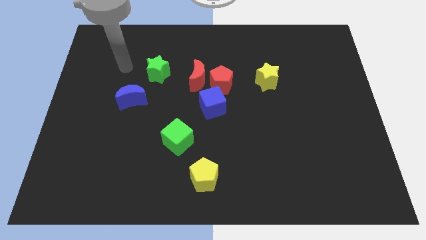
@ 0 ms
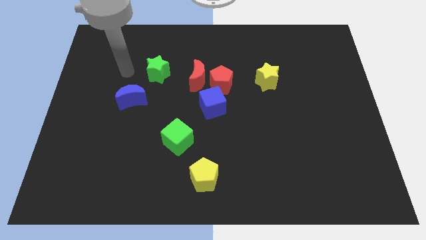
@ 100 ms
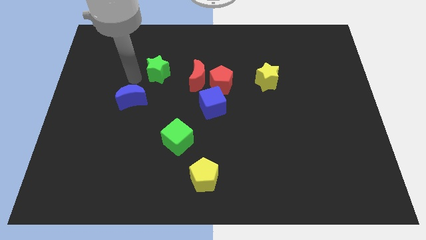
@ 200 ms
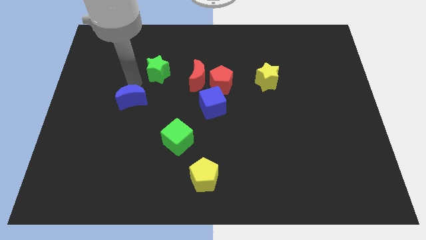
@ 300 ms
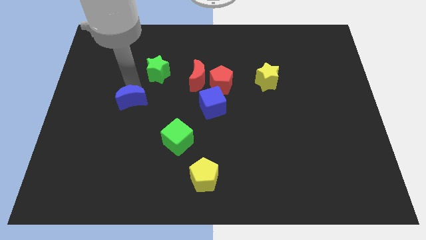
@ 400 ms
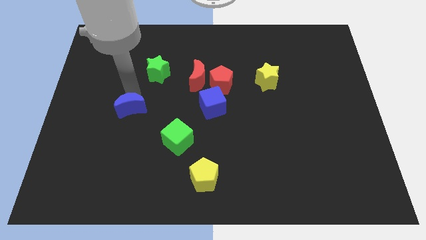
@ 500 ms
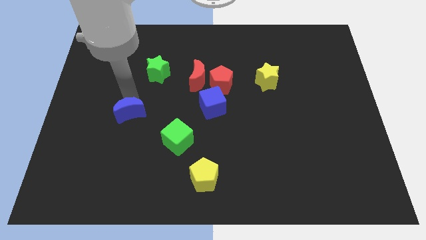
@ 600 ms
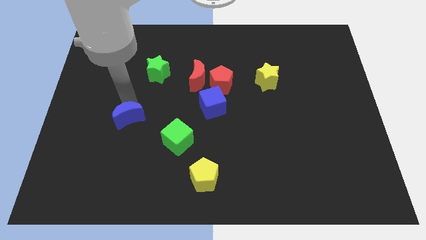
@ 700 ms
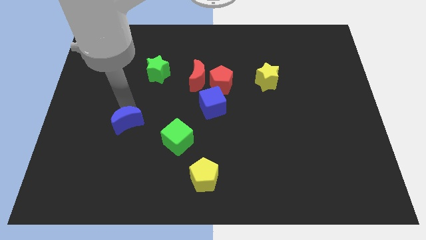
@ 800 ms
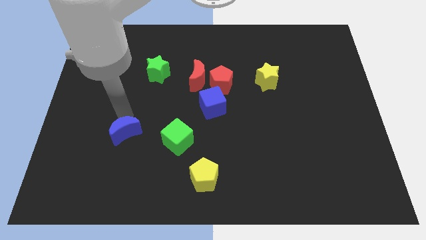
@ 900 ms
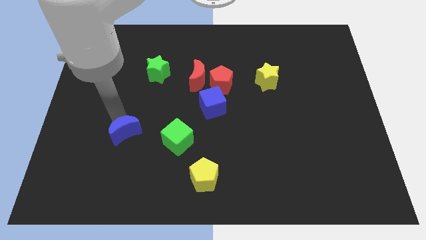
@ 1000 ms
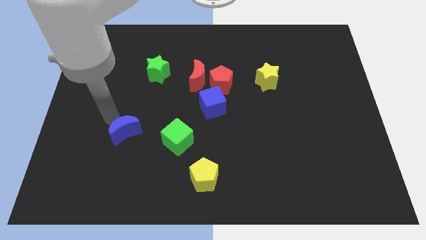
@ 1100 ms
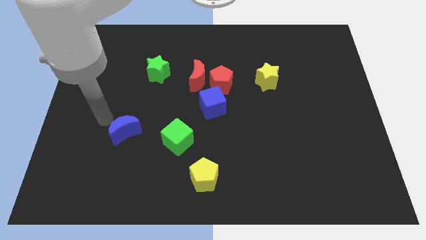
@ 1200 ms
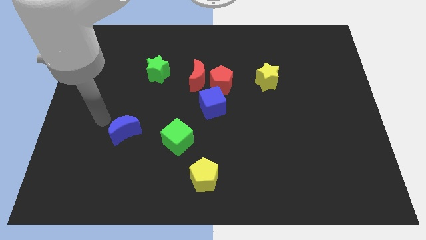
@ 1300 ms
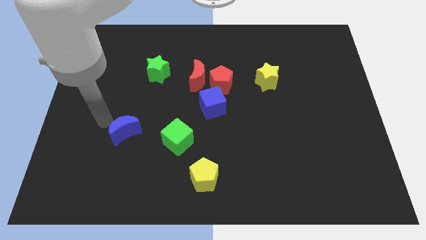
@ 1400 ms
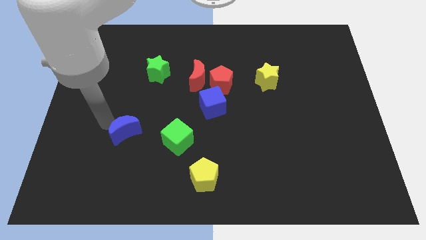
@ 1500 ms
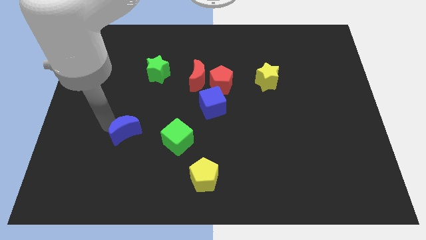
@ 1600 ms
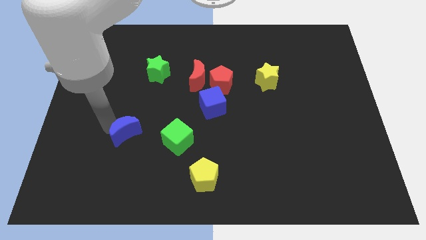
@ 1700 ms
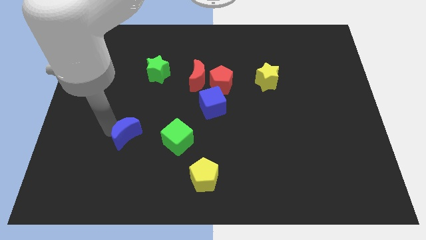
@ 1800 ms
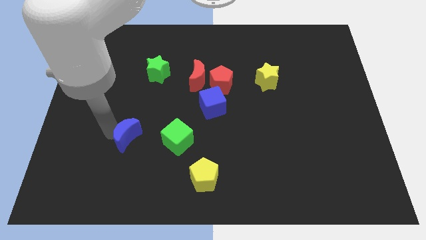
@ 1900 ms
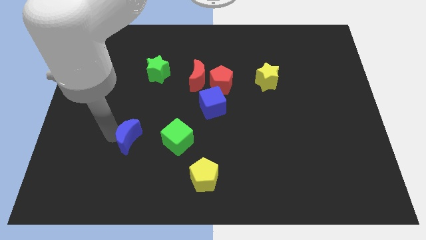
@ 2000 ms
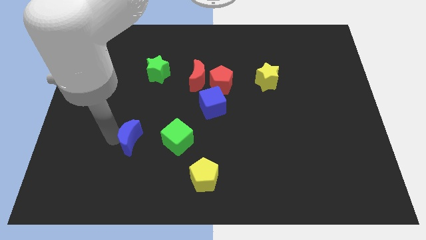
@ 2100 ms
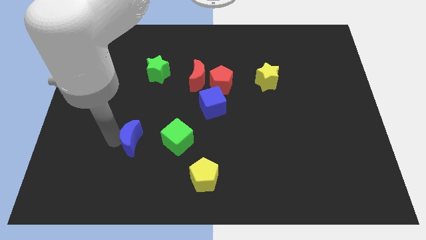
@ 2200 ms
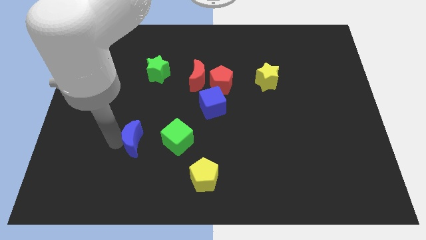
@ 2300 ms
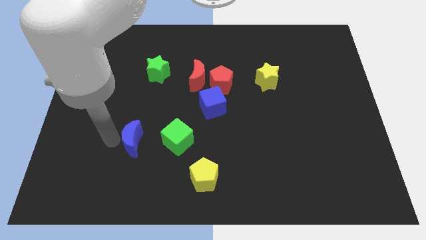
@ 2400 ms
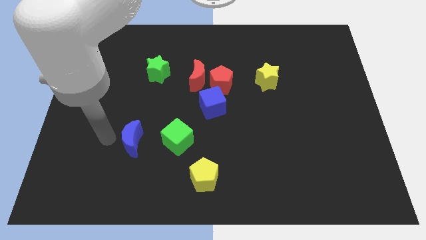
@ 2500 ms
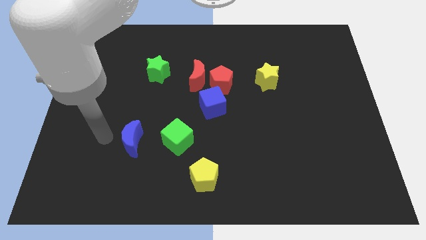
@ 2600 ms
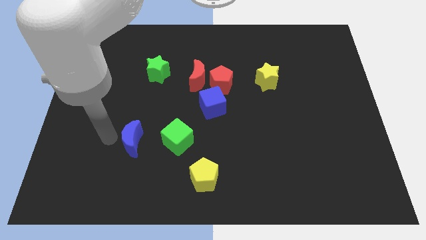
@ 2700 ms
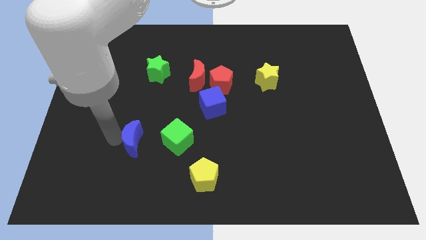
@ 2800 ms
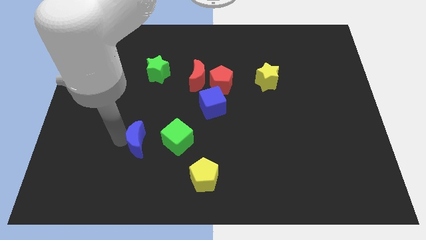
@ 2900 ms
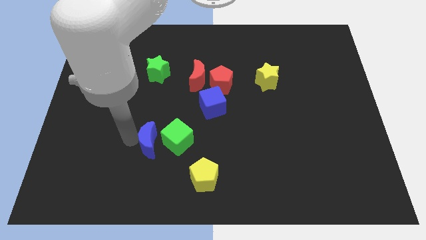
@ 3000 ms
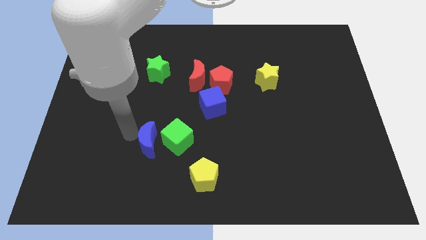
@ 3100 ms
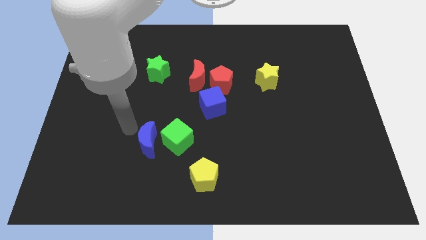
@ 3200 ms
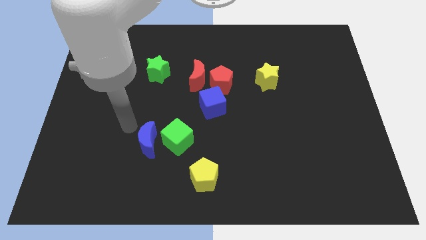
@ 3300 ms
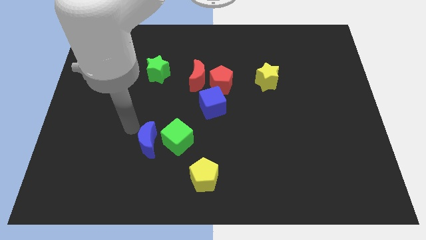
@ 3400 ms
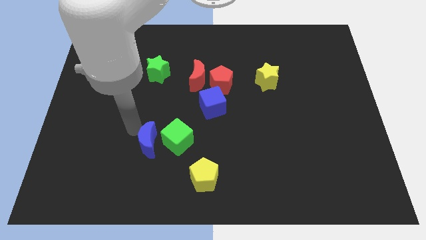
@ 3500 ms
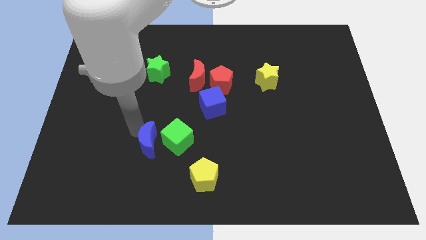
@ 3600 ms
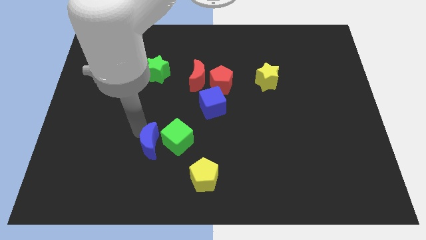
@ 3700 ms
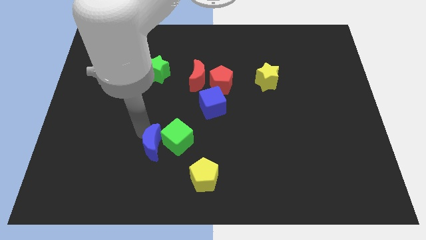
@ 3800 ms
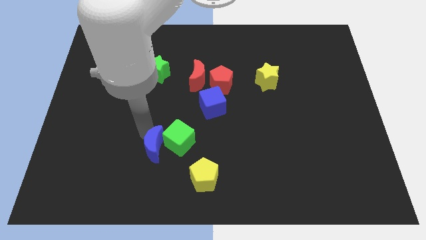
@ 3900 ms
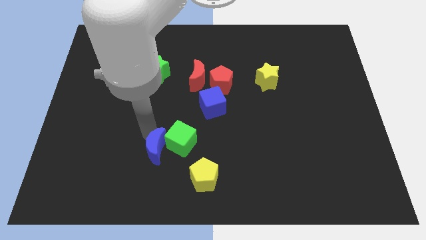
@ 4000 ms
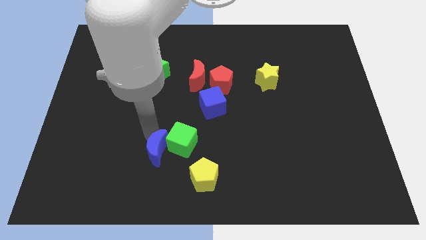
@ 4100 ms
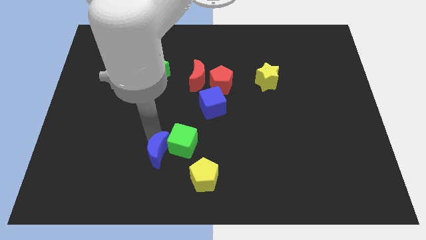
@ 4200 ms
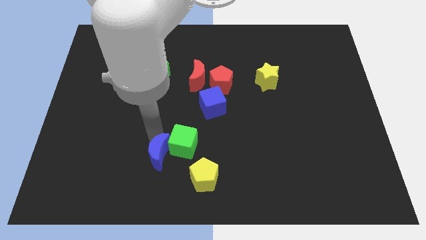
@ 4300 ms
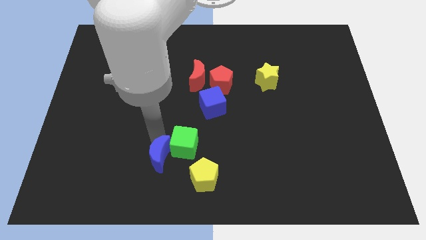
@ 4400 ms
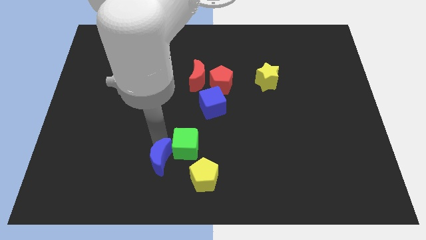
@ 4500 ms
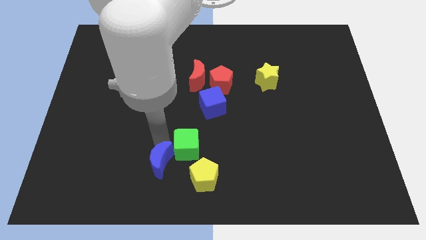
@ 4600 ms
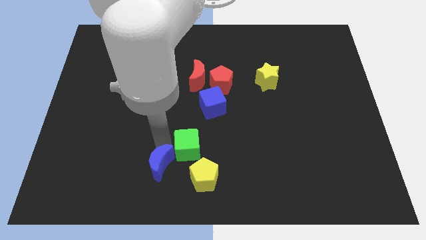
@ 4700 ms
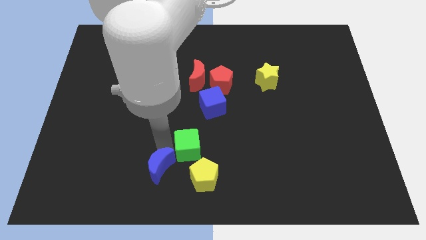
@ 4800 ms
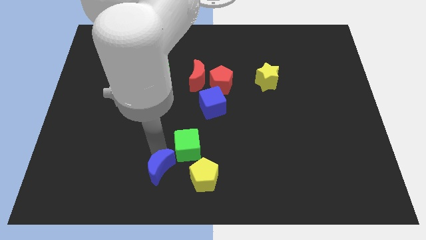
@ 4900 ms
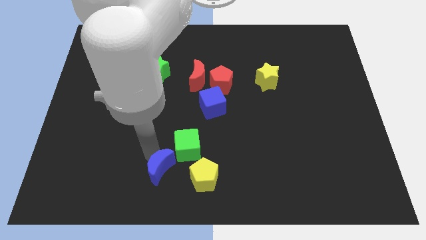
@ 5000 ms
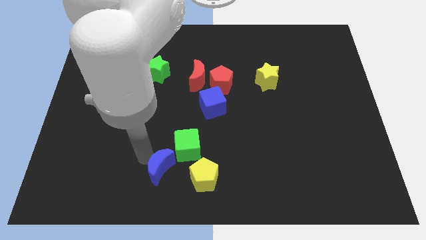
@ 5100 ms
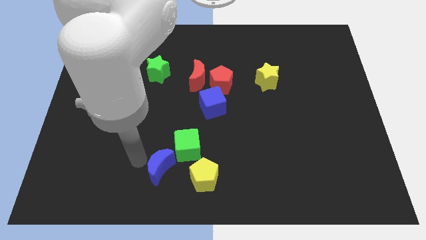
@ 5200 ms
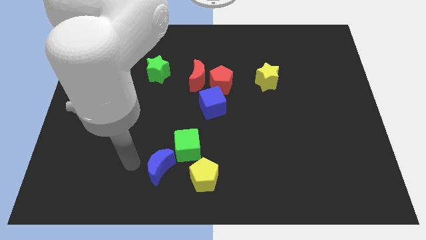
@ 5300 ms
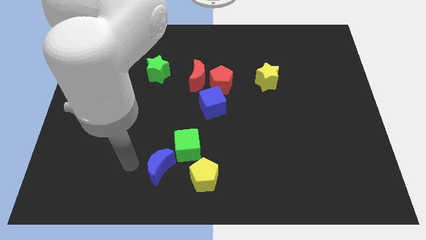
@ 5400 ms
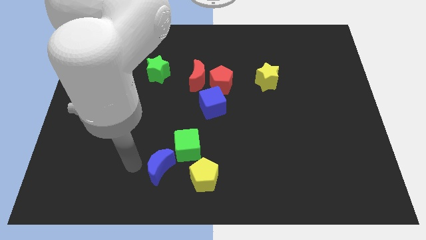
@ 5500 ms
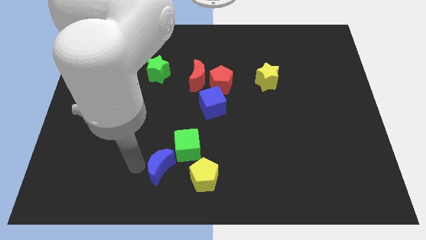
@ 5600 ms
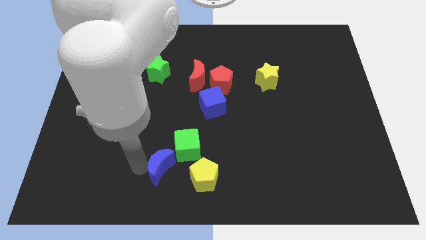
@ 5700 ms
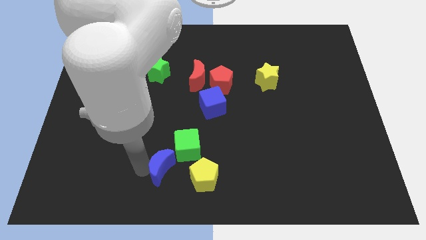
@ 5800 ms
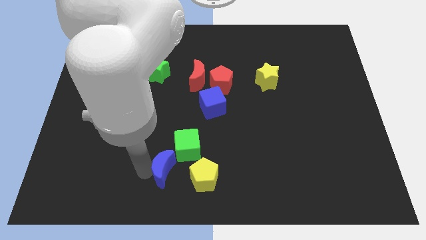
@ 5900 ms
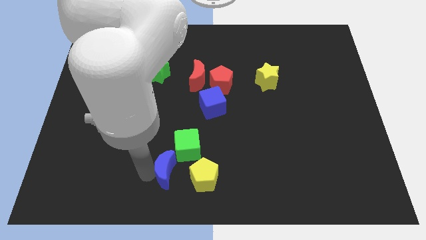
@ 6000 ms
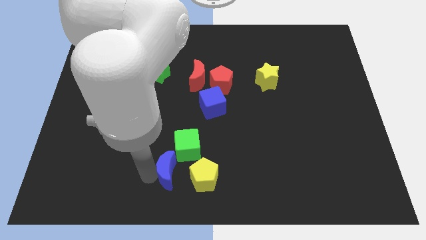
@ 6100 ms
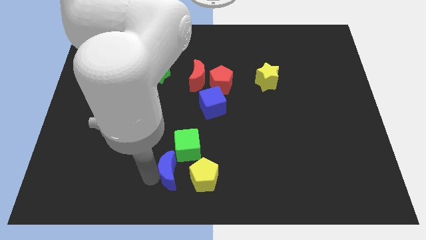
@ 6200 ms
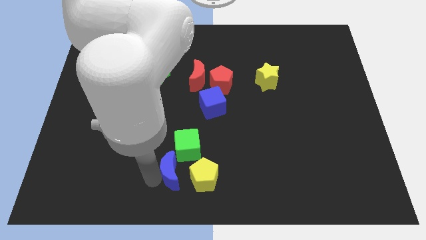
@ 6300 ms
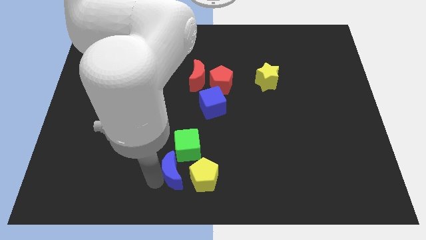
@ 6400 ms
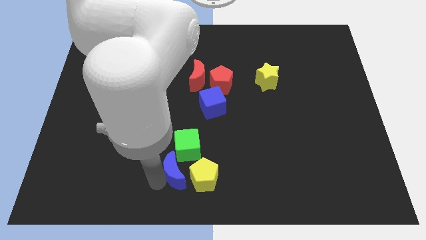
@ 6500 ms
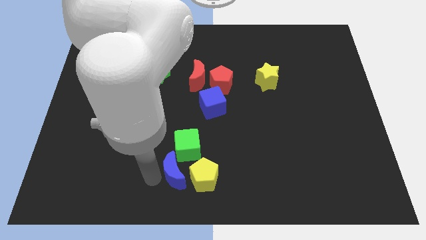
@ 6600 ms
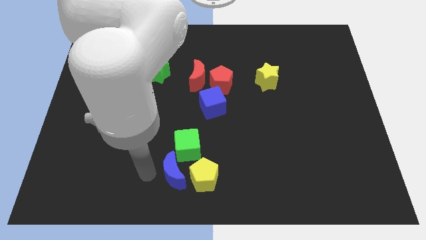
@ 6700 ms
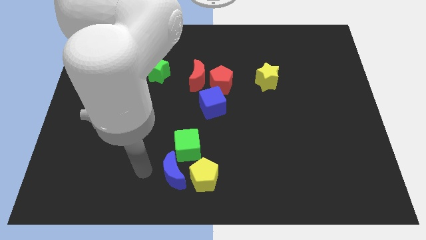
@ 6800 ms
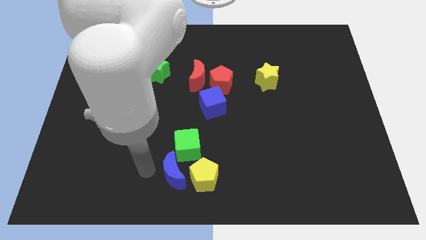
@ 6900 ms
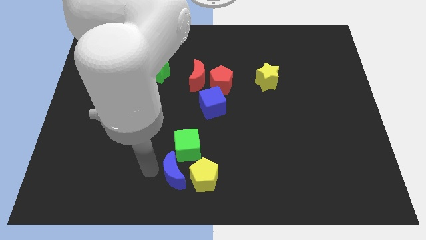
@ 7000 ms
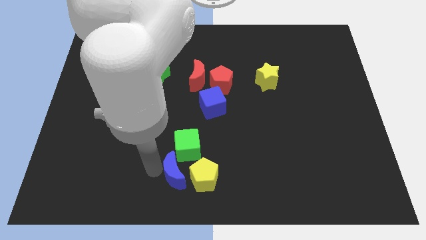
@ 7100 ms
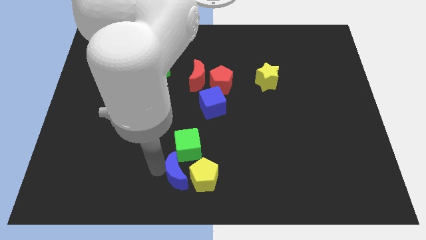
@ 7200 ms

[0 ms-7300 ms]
push the blue moon close to the yellow pentagon
